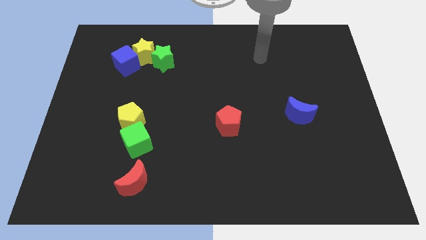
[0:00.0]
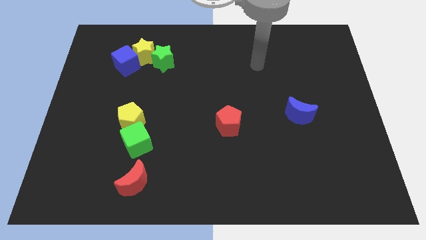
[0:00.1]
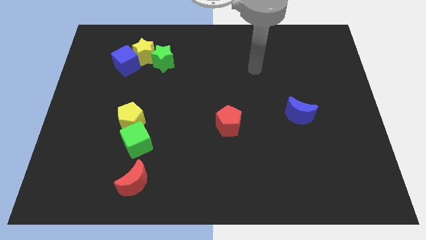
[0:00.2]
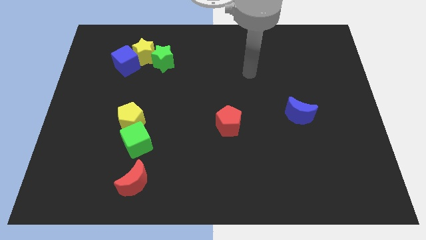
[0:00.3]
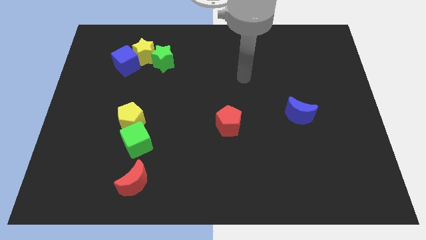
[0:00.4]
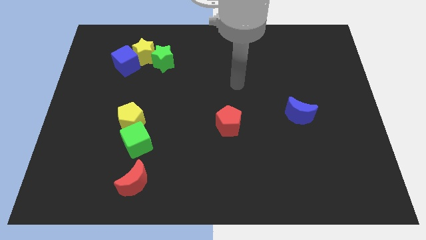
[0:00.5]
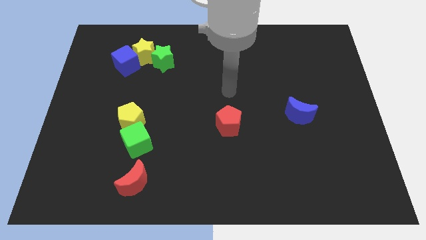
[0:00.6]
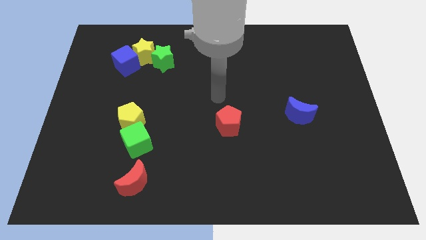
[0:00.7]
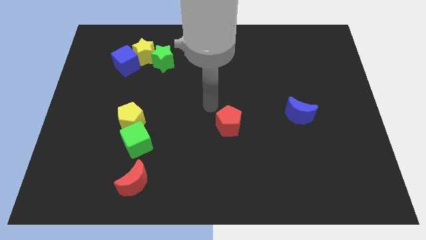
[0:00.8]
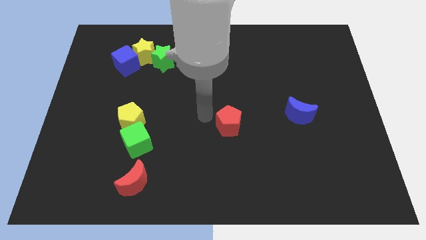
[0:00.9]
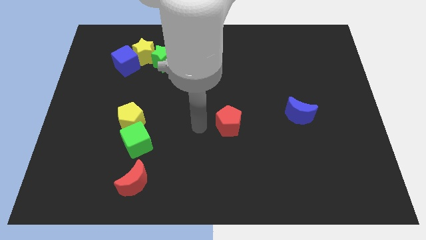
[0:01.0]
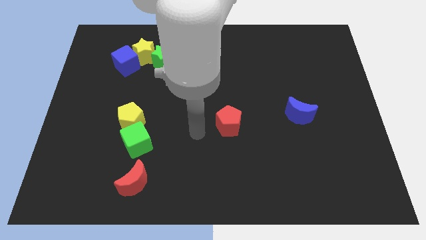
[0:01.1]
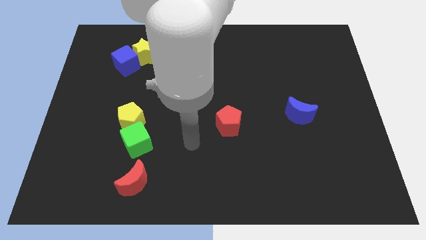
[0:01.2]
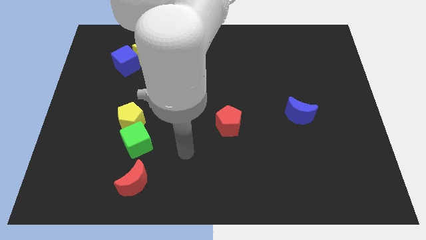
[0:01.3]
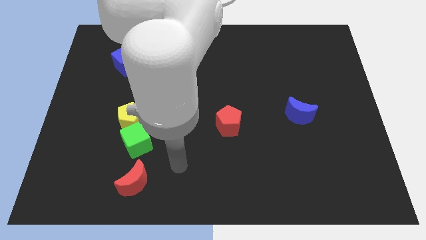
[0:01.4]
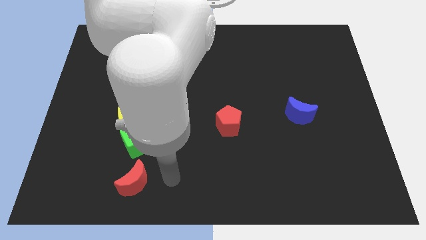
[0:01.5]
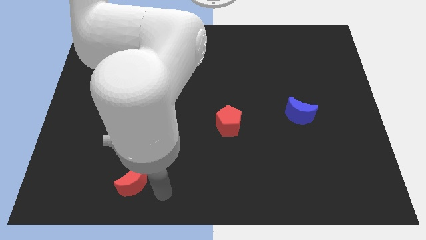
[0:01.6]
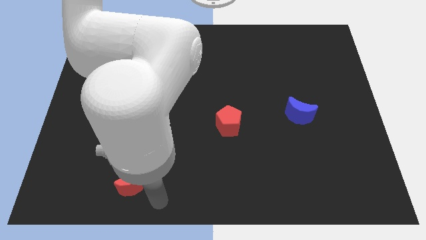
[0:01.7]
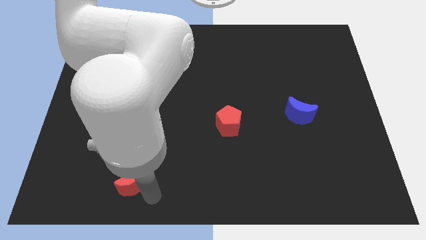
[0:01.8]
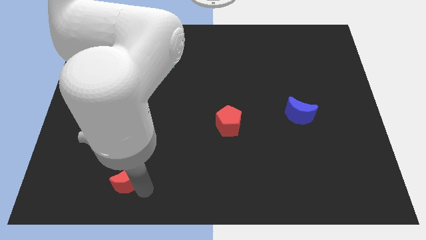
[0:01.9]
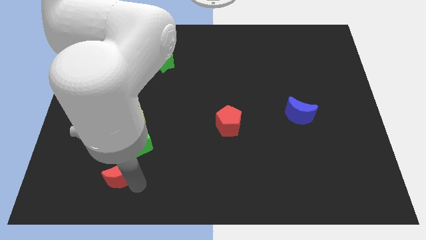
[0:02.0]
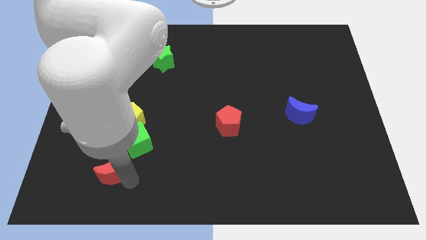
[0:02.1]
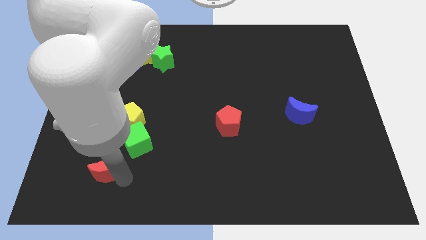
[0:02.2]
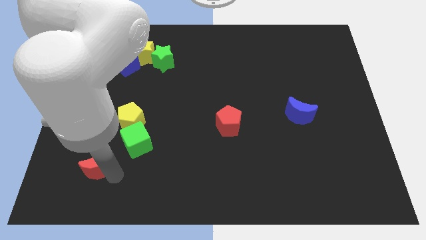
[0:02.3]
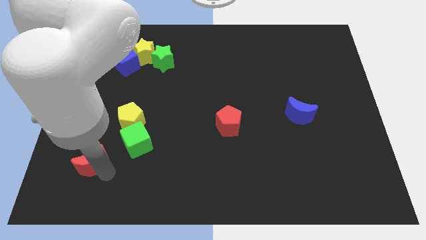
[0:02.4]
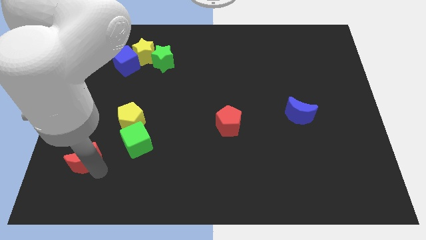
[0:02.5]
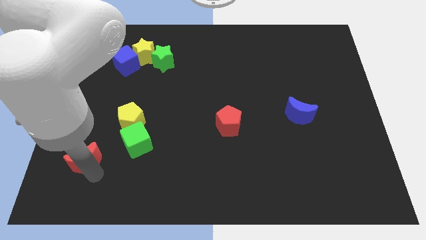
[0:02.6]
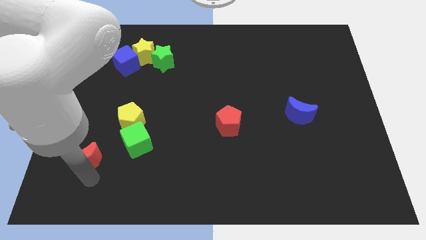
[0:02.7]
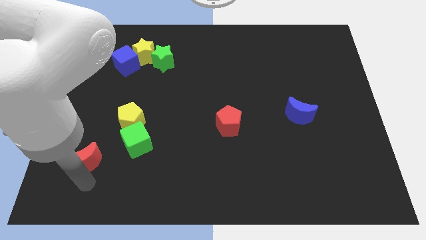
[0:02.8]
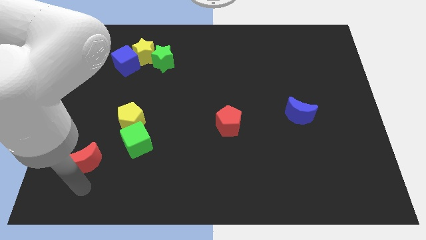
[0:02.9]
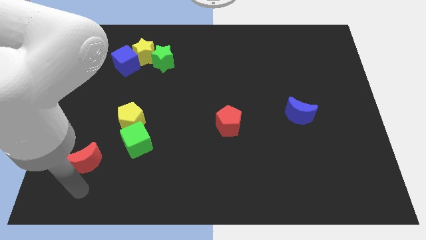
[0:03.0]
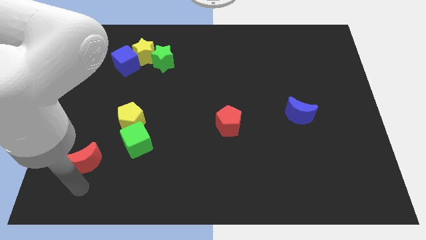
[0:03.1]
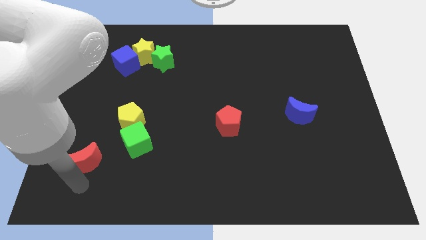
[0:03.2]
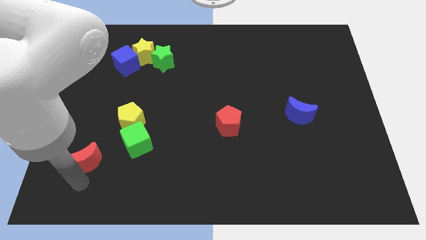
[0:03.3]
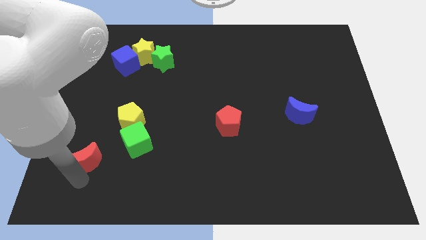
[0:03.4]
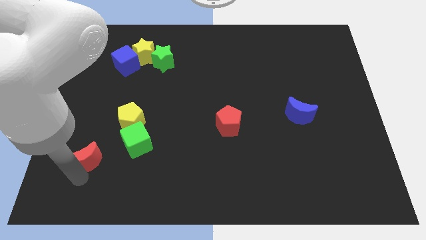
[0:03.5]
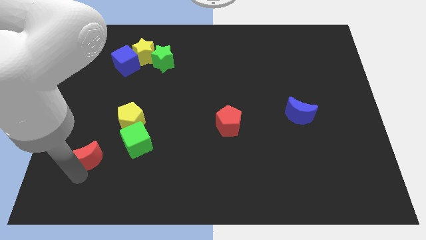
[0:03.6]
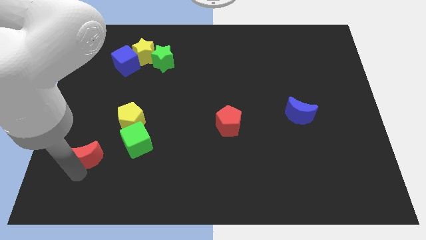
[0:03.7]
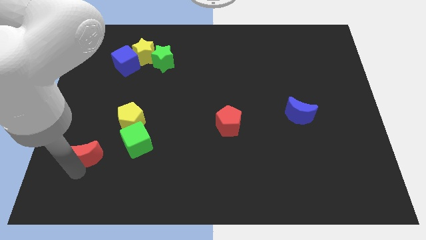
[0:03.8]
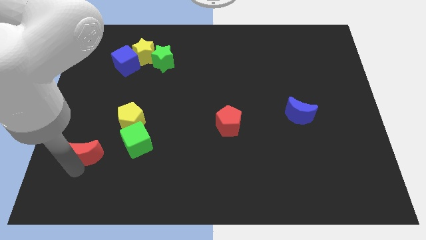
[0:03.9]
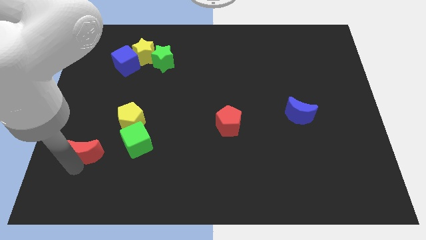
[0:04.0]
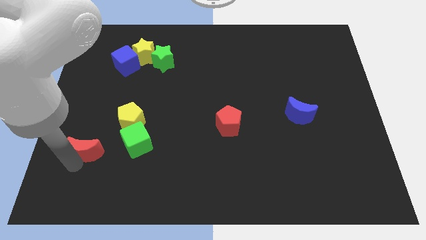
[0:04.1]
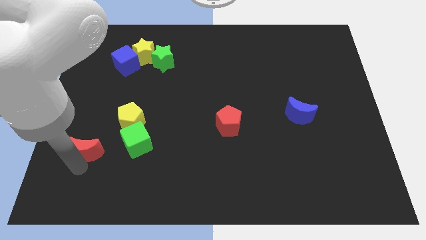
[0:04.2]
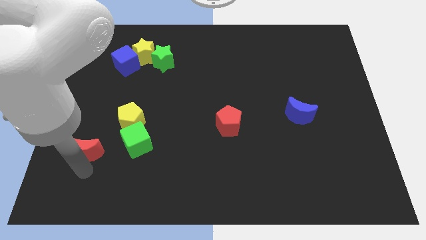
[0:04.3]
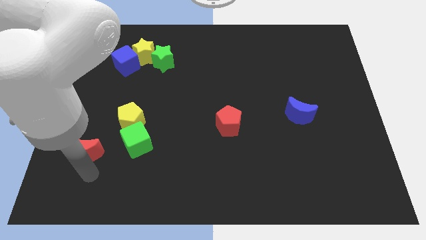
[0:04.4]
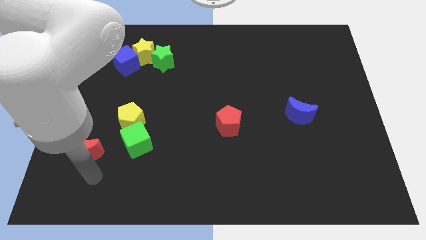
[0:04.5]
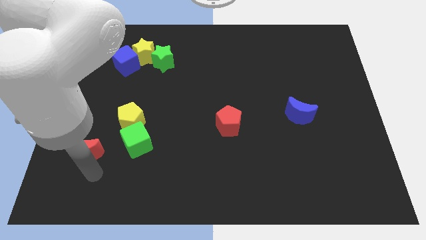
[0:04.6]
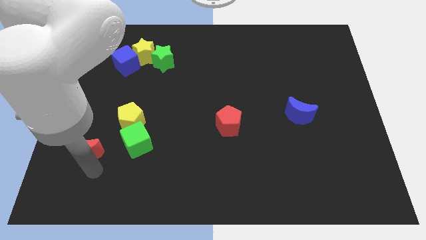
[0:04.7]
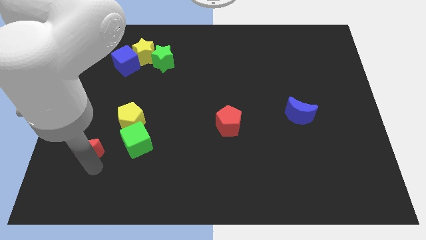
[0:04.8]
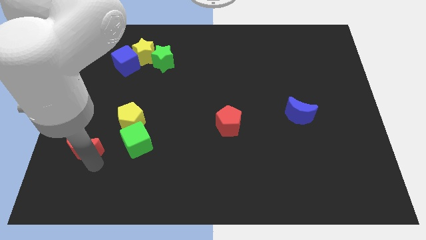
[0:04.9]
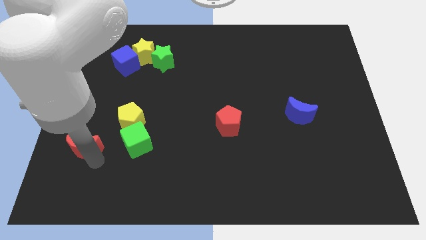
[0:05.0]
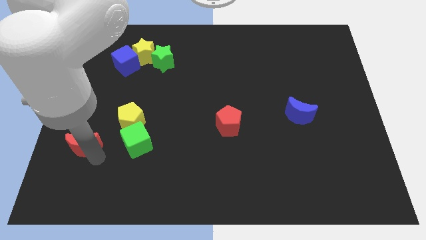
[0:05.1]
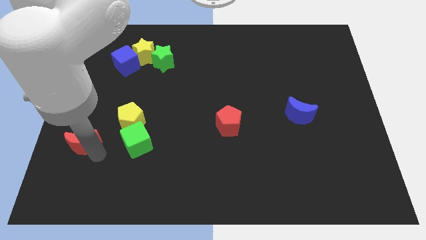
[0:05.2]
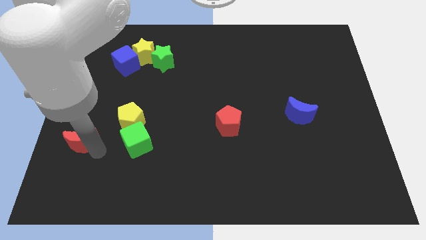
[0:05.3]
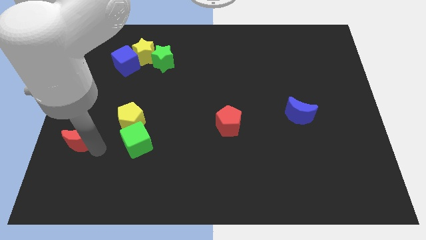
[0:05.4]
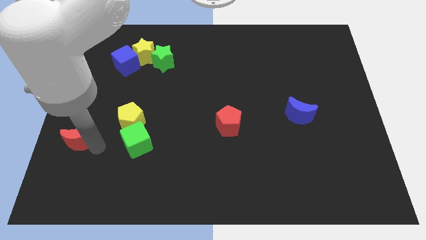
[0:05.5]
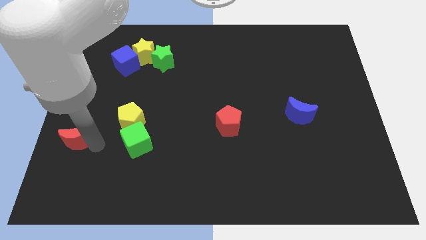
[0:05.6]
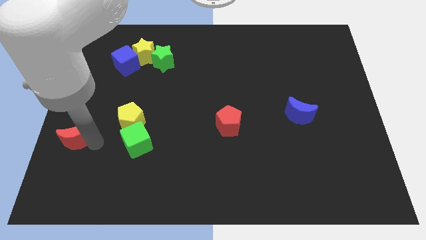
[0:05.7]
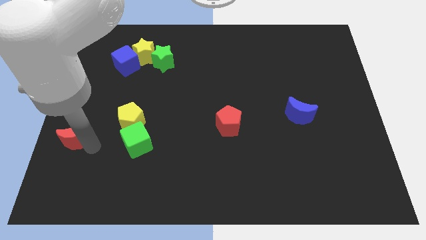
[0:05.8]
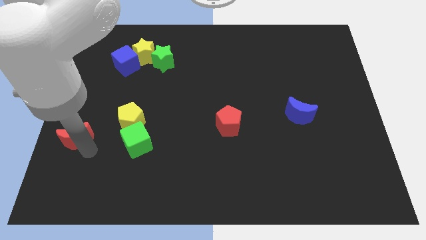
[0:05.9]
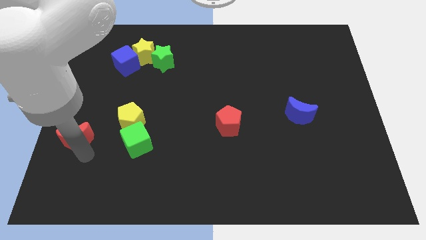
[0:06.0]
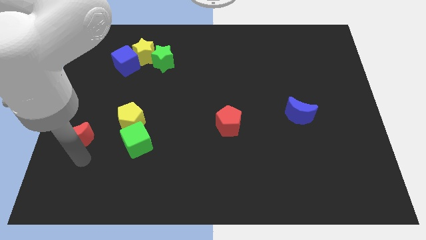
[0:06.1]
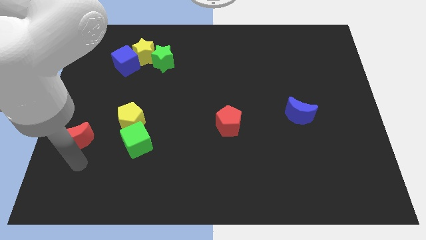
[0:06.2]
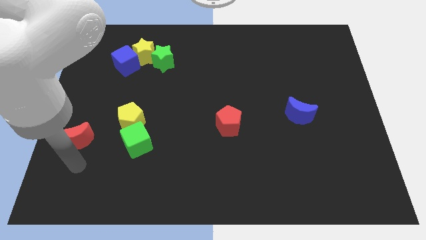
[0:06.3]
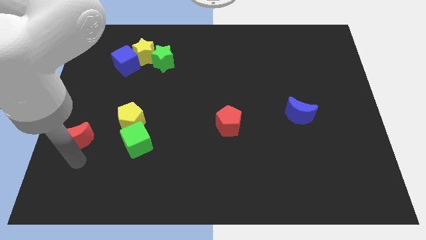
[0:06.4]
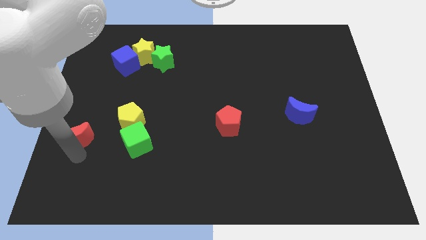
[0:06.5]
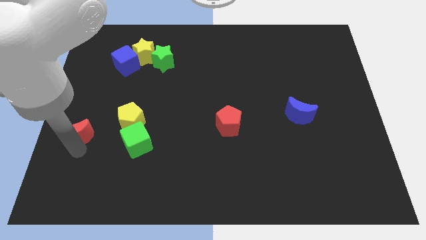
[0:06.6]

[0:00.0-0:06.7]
push the red moon to the left side of the board
